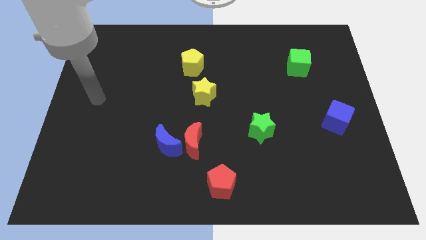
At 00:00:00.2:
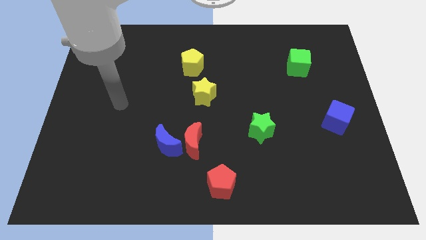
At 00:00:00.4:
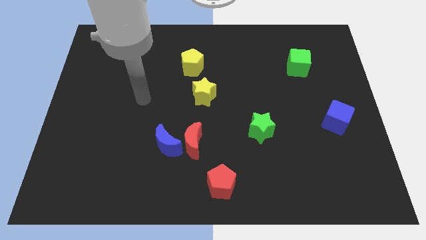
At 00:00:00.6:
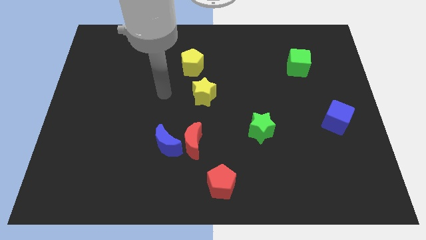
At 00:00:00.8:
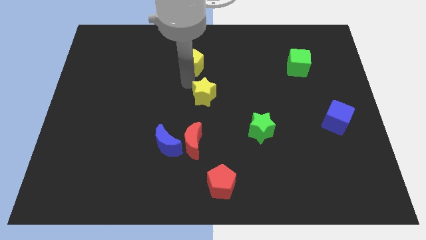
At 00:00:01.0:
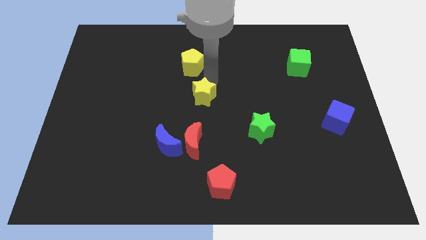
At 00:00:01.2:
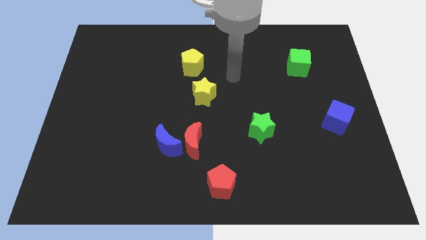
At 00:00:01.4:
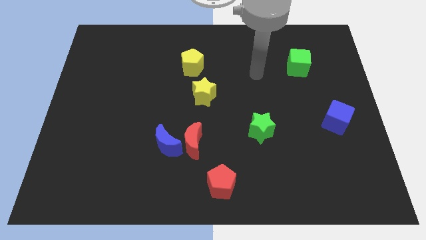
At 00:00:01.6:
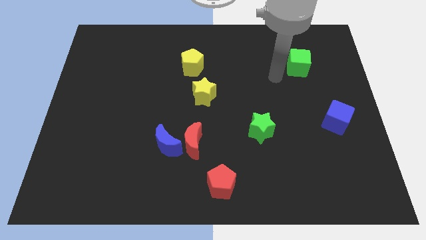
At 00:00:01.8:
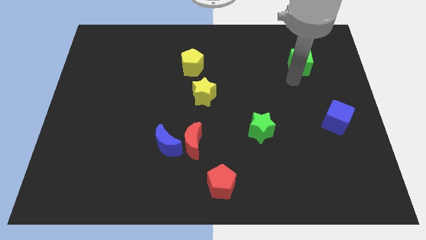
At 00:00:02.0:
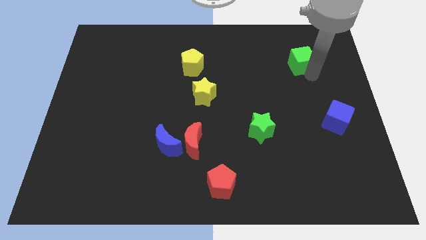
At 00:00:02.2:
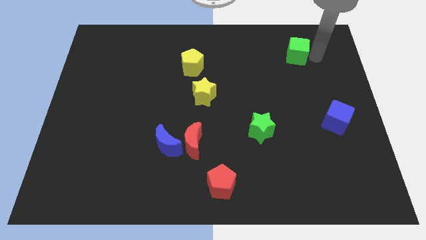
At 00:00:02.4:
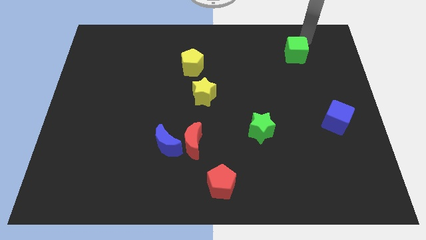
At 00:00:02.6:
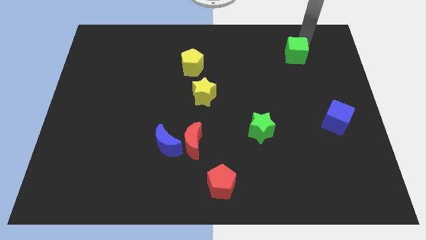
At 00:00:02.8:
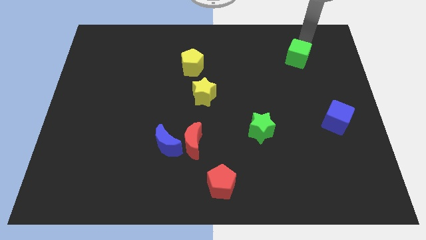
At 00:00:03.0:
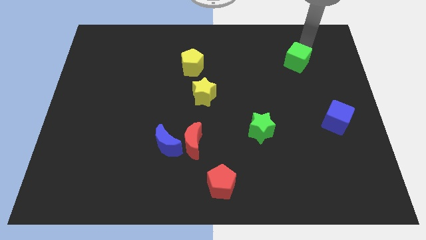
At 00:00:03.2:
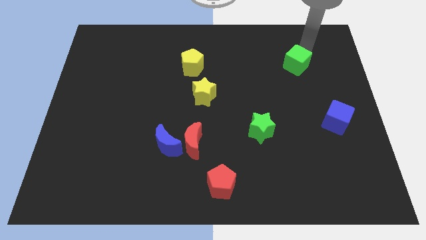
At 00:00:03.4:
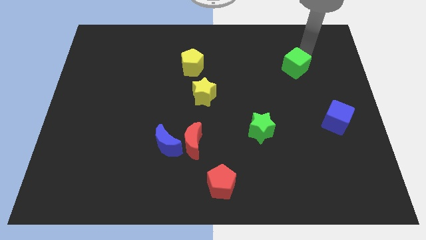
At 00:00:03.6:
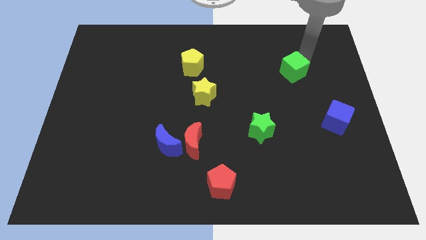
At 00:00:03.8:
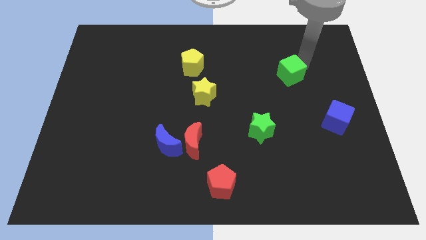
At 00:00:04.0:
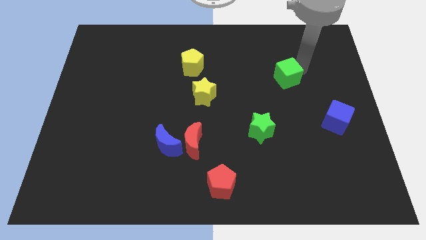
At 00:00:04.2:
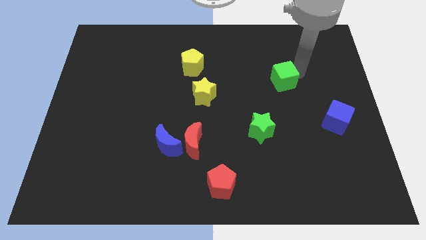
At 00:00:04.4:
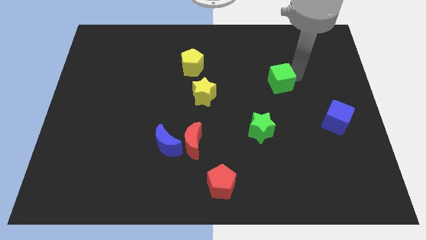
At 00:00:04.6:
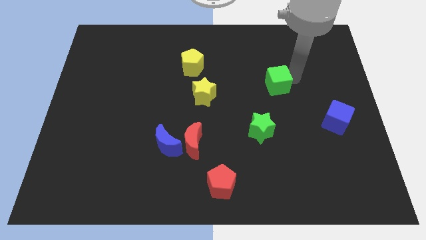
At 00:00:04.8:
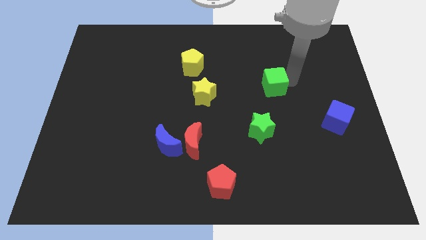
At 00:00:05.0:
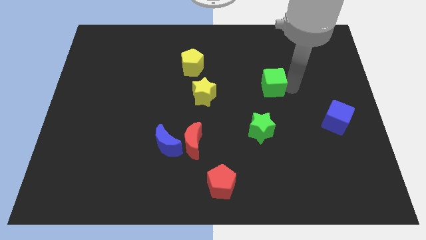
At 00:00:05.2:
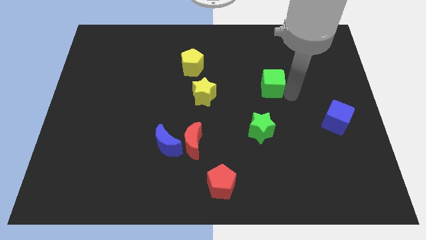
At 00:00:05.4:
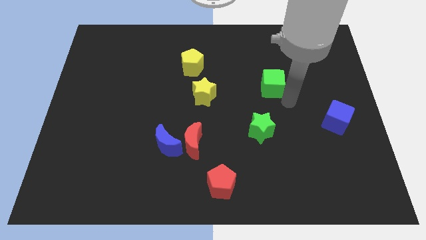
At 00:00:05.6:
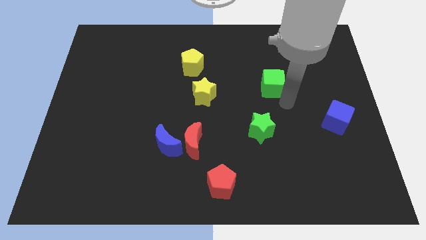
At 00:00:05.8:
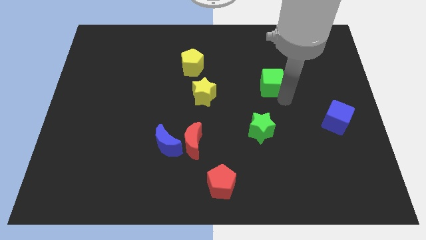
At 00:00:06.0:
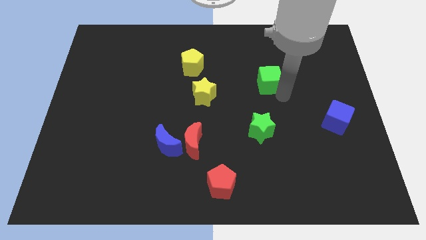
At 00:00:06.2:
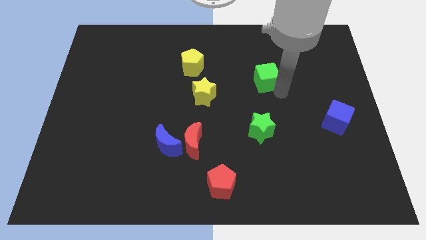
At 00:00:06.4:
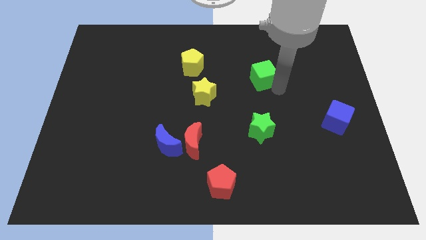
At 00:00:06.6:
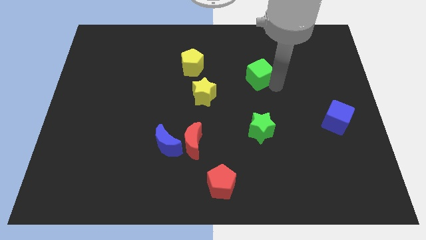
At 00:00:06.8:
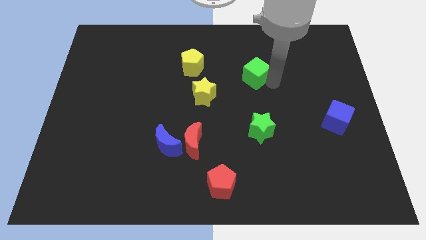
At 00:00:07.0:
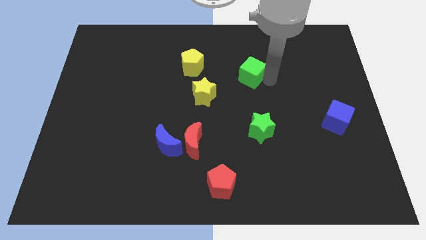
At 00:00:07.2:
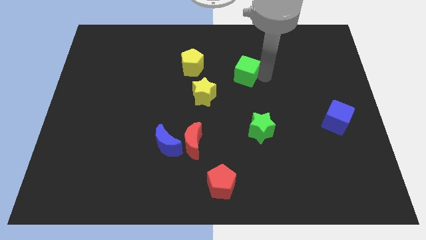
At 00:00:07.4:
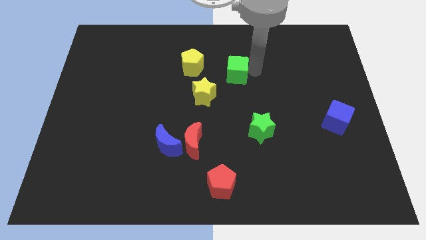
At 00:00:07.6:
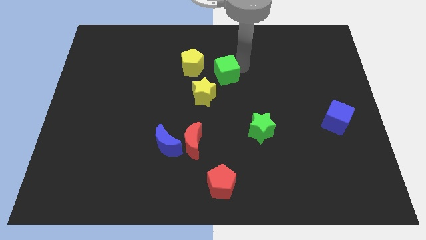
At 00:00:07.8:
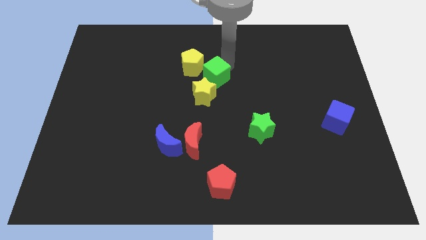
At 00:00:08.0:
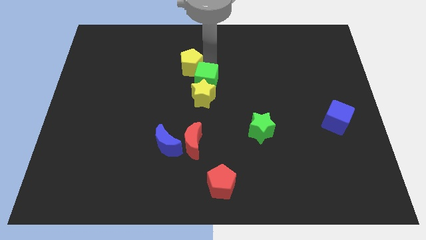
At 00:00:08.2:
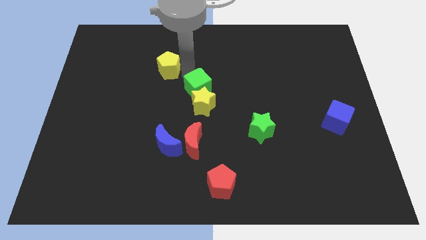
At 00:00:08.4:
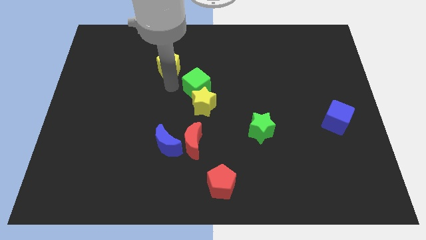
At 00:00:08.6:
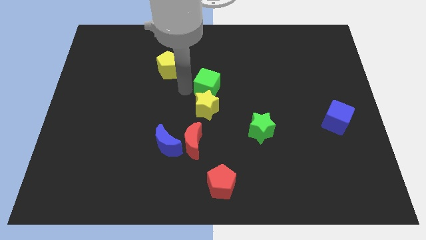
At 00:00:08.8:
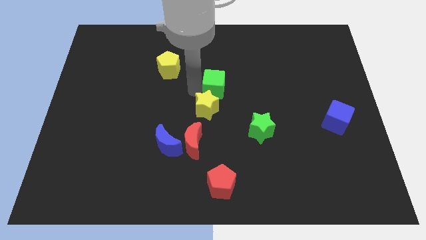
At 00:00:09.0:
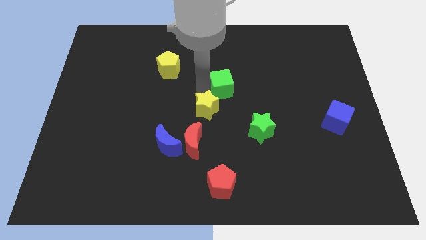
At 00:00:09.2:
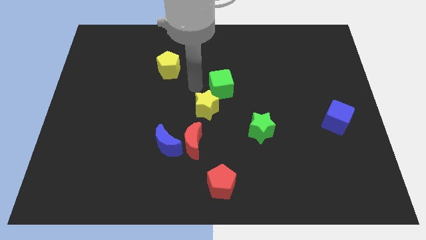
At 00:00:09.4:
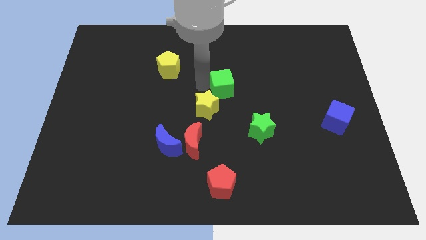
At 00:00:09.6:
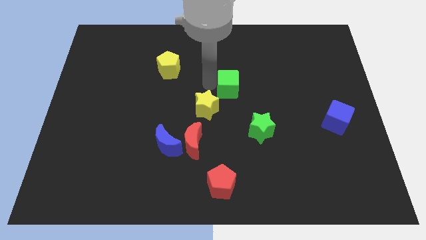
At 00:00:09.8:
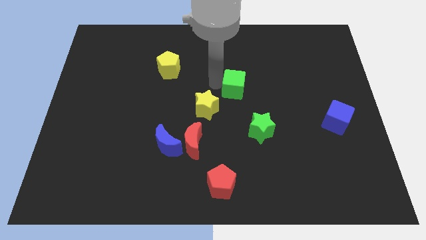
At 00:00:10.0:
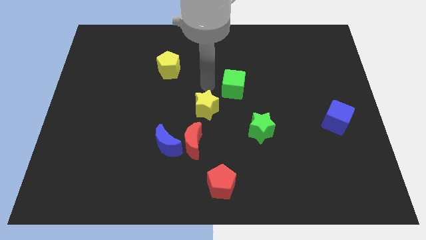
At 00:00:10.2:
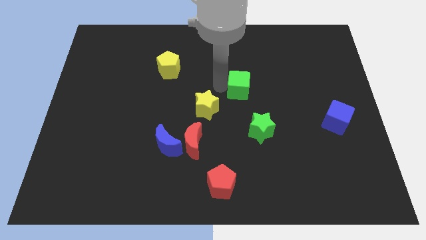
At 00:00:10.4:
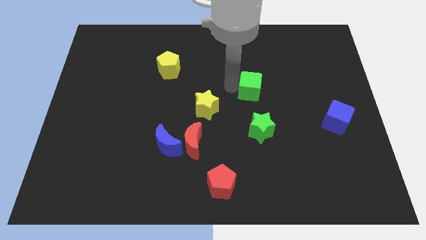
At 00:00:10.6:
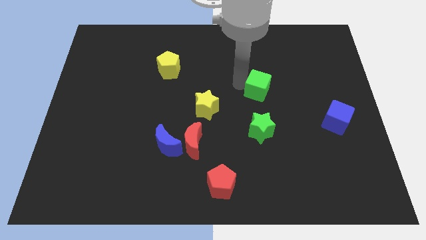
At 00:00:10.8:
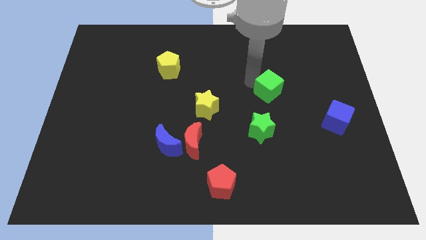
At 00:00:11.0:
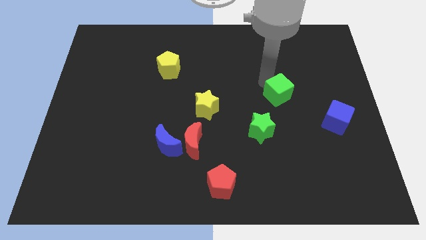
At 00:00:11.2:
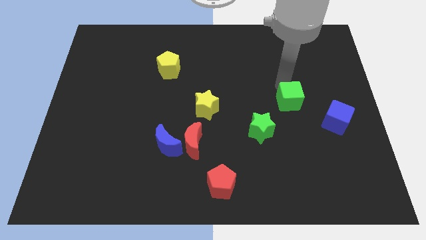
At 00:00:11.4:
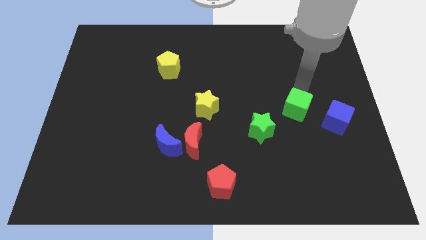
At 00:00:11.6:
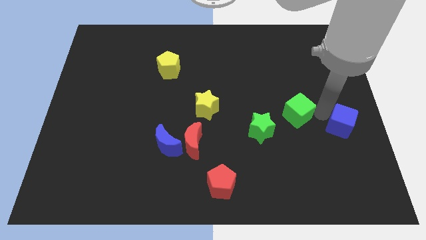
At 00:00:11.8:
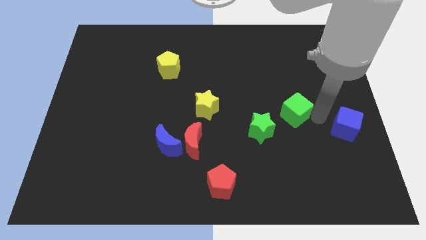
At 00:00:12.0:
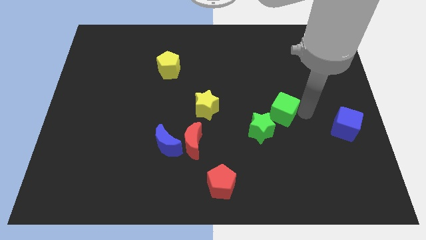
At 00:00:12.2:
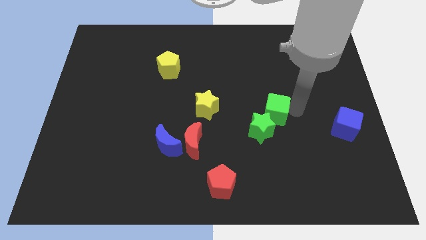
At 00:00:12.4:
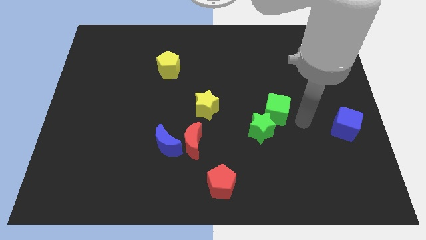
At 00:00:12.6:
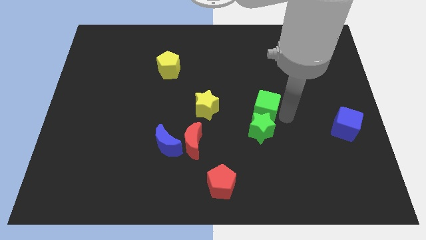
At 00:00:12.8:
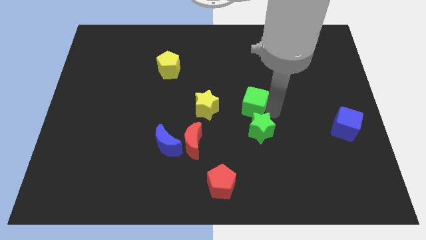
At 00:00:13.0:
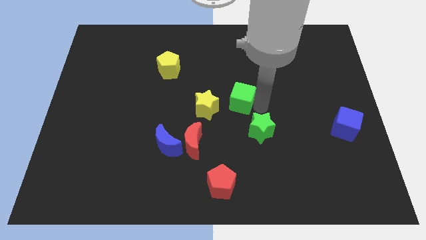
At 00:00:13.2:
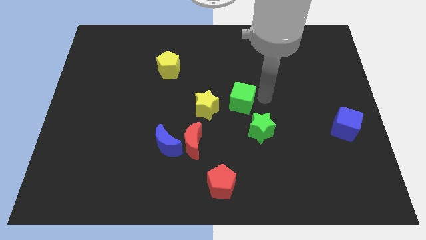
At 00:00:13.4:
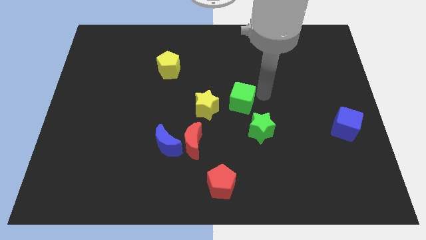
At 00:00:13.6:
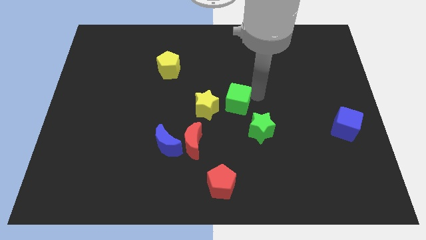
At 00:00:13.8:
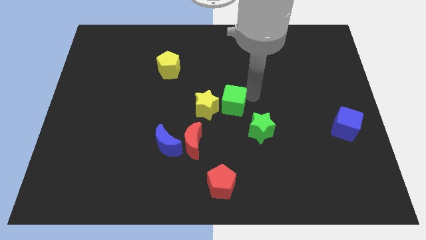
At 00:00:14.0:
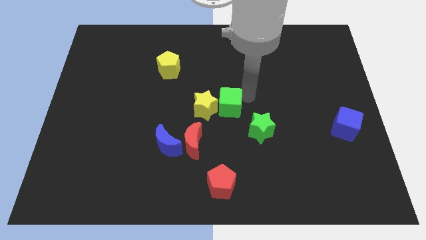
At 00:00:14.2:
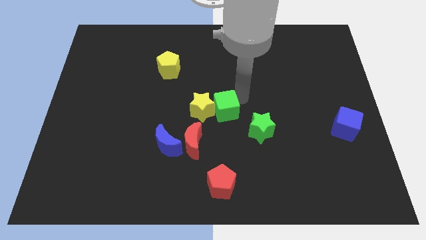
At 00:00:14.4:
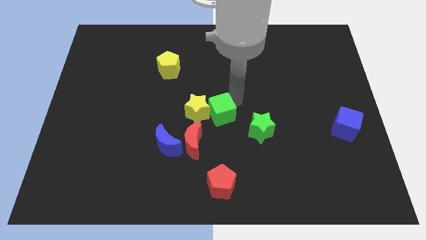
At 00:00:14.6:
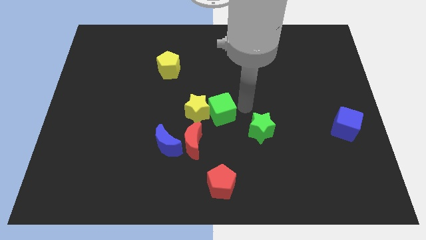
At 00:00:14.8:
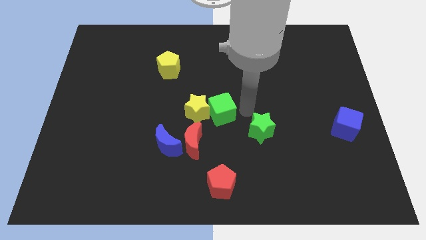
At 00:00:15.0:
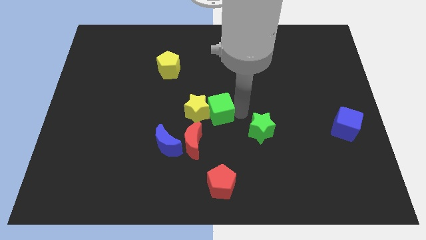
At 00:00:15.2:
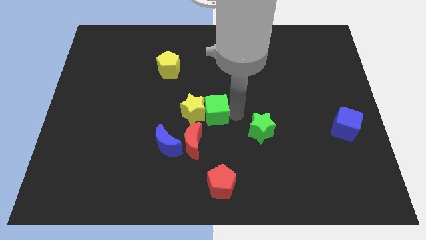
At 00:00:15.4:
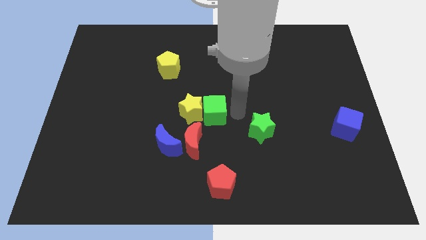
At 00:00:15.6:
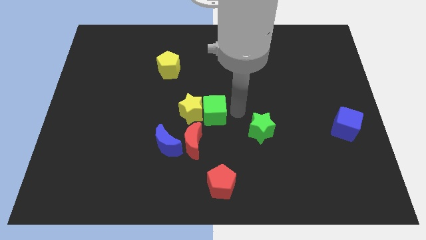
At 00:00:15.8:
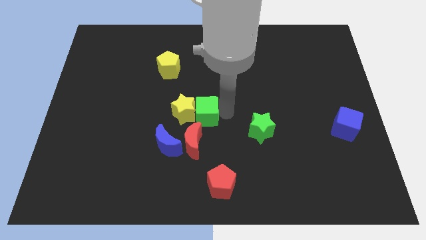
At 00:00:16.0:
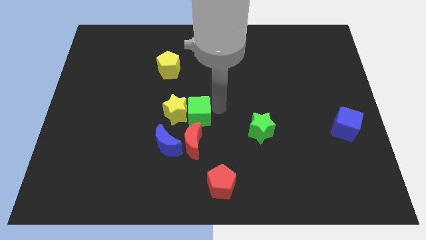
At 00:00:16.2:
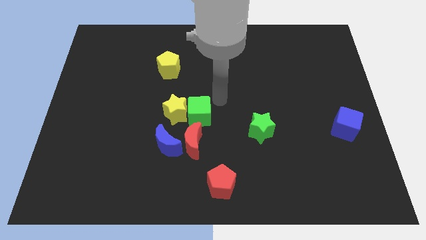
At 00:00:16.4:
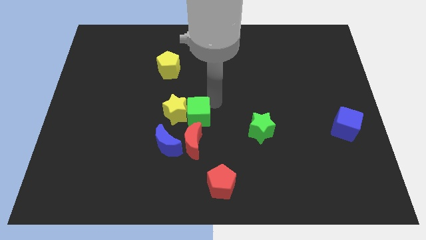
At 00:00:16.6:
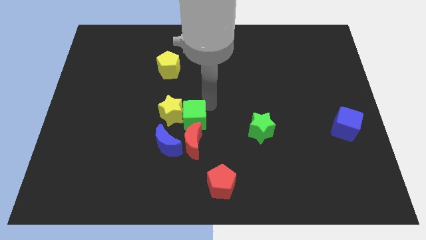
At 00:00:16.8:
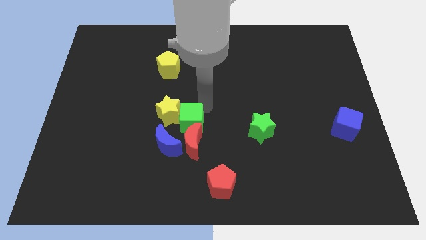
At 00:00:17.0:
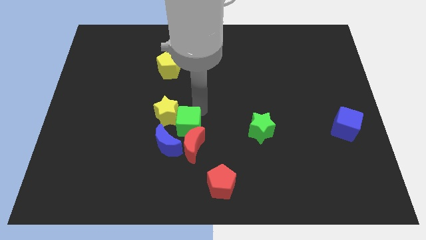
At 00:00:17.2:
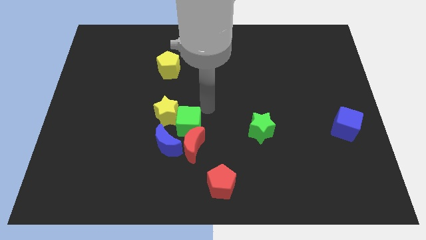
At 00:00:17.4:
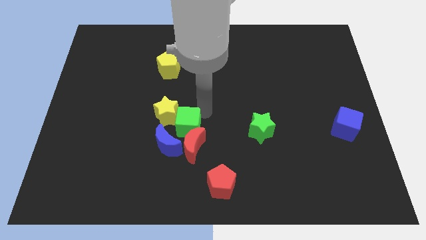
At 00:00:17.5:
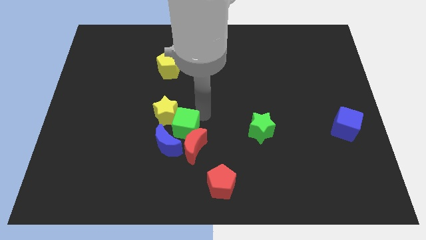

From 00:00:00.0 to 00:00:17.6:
slide the green cube close to the blue moon
